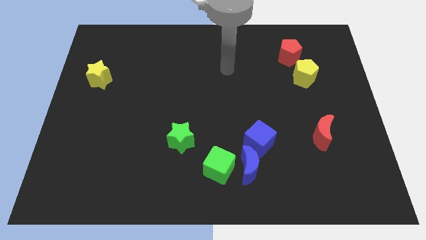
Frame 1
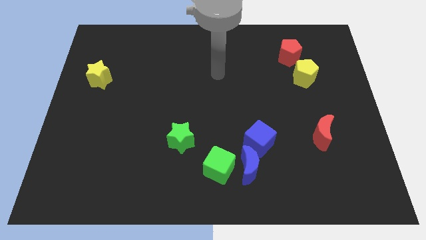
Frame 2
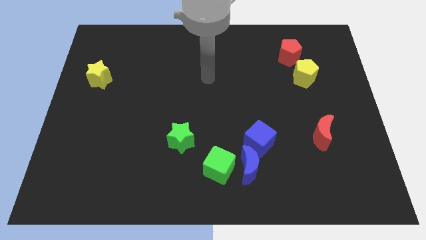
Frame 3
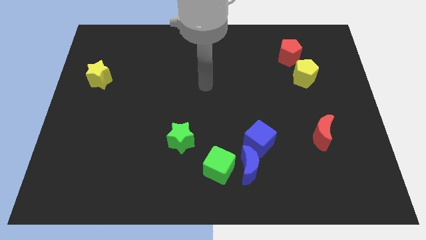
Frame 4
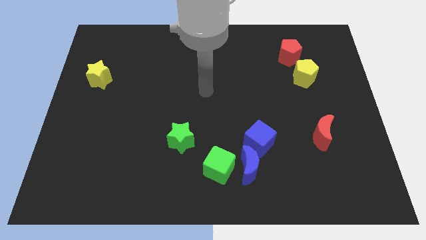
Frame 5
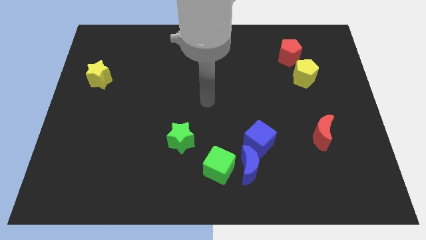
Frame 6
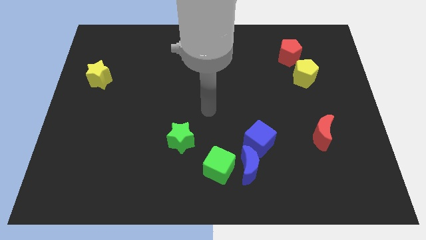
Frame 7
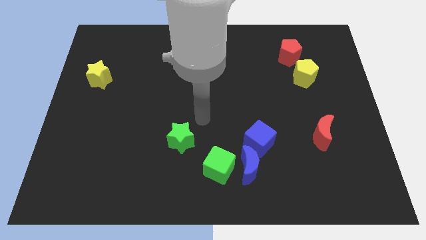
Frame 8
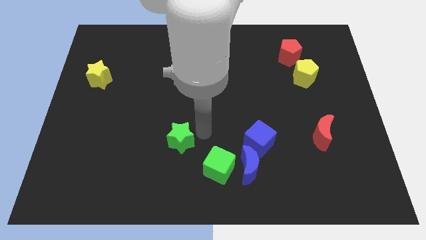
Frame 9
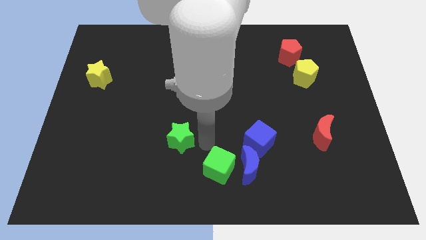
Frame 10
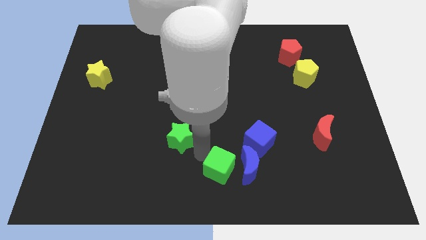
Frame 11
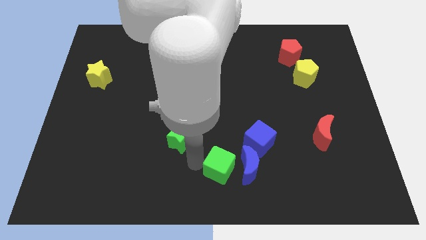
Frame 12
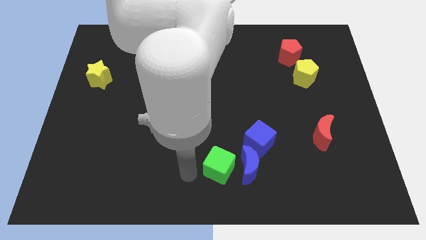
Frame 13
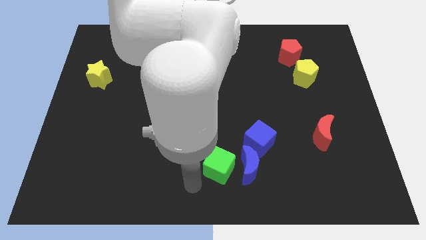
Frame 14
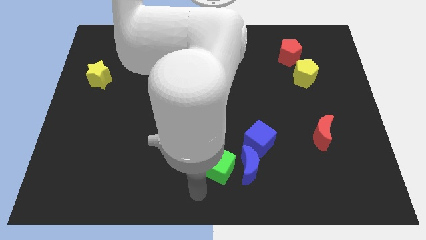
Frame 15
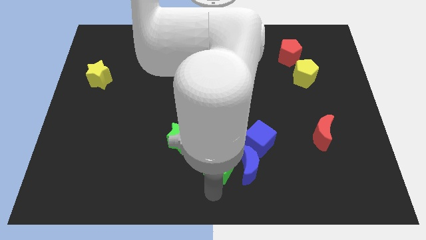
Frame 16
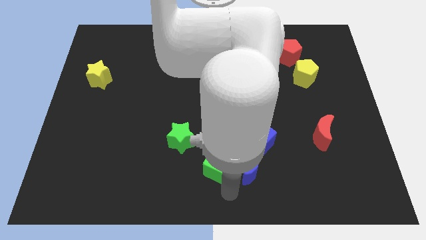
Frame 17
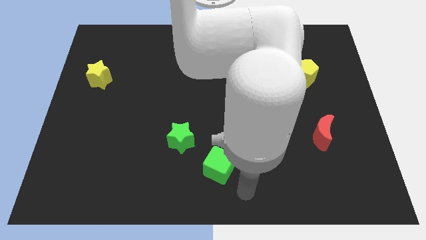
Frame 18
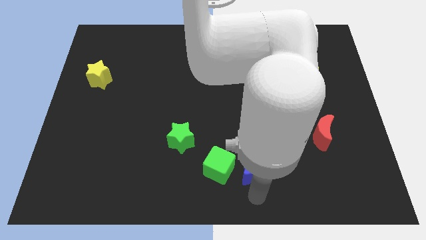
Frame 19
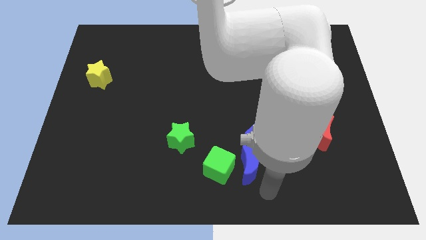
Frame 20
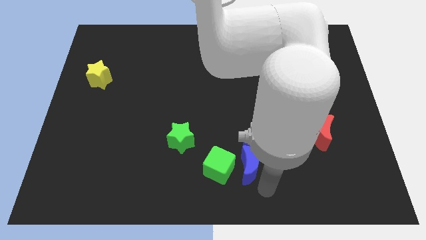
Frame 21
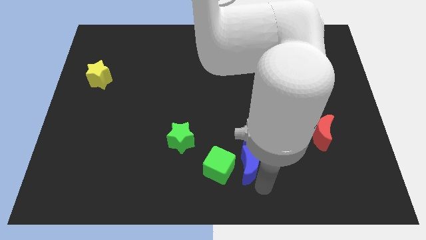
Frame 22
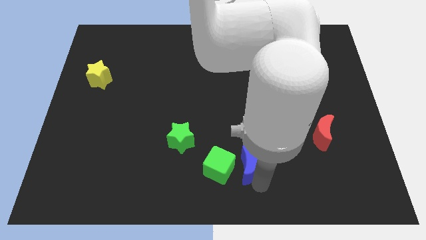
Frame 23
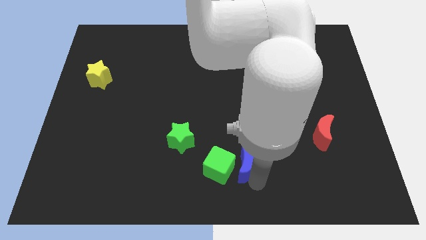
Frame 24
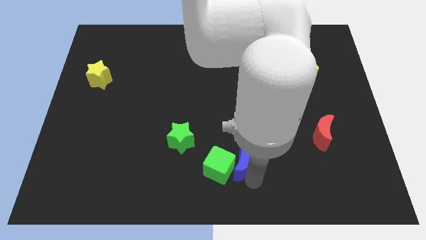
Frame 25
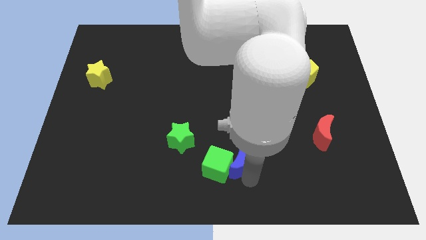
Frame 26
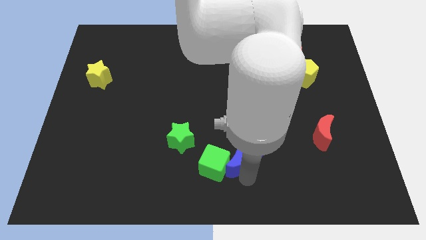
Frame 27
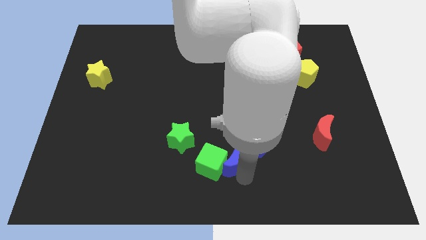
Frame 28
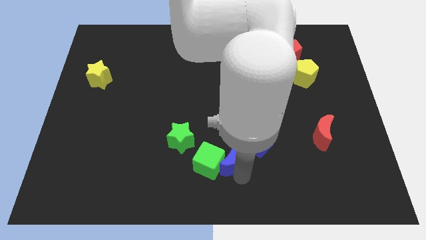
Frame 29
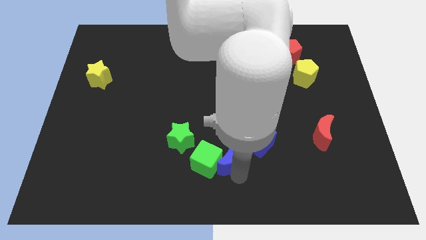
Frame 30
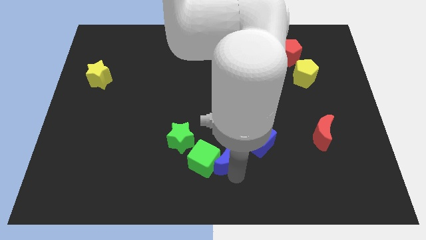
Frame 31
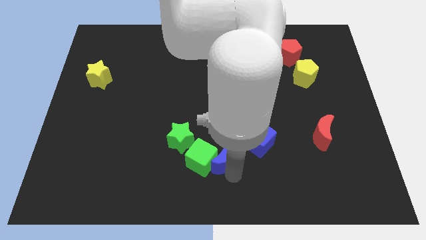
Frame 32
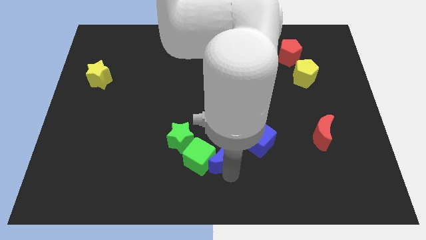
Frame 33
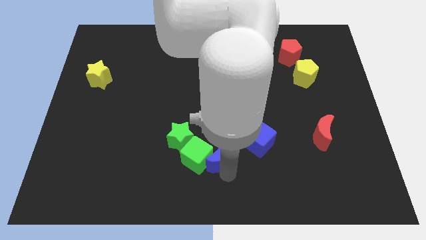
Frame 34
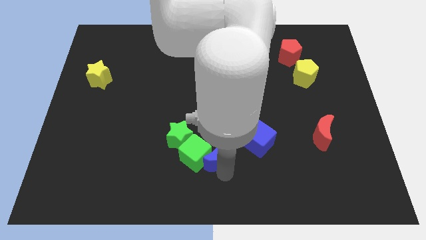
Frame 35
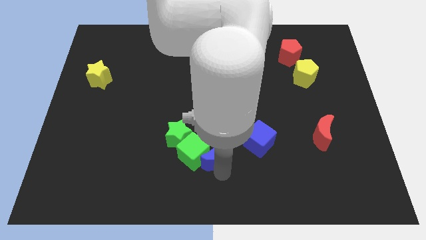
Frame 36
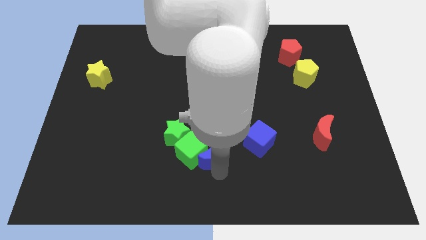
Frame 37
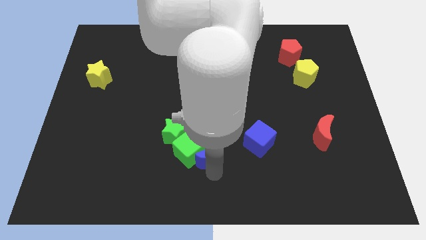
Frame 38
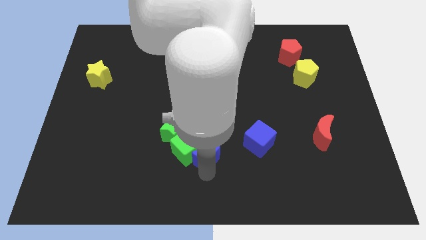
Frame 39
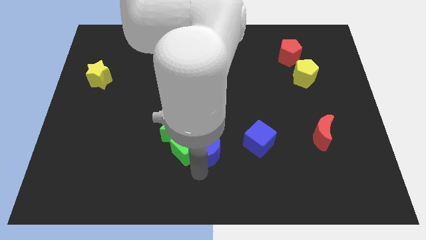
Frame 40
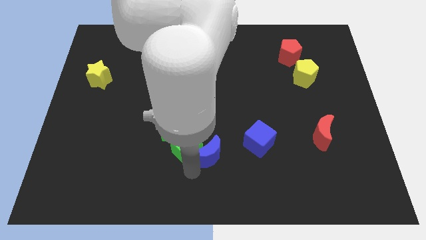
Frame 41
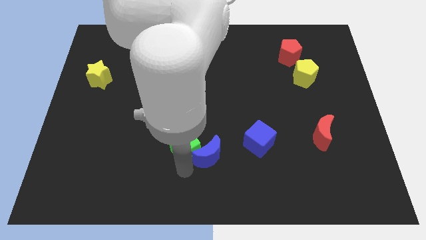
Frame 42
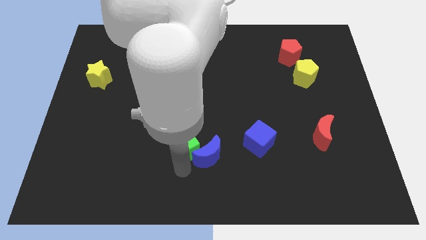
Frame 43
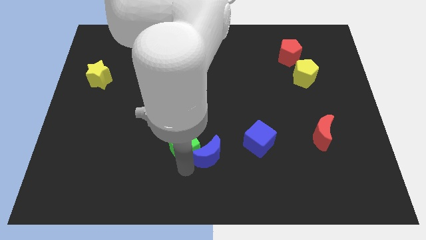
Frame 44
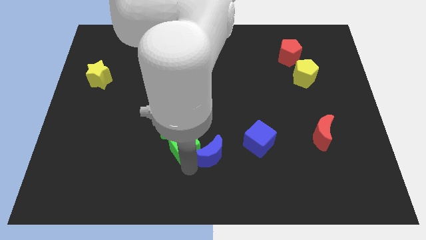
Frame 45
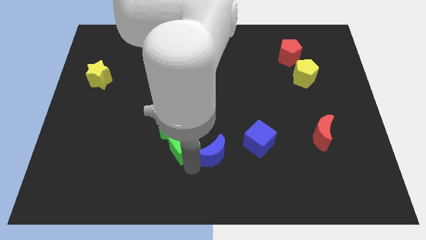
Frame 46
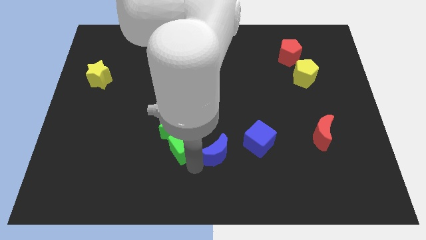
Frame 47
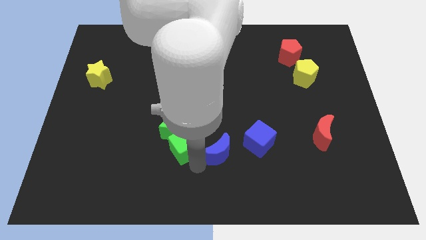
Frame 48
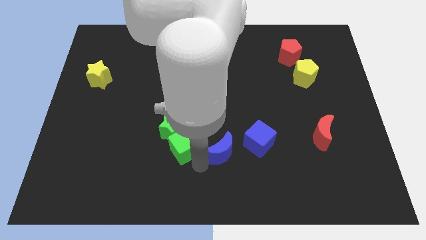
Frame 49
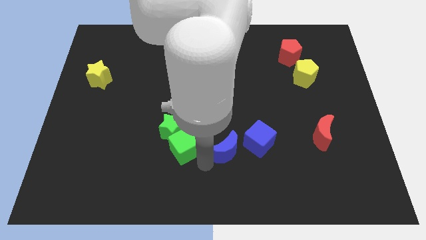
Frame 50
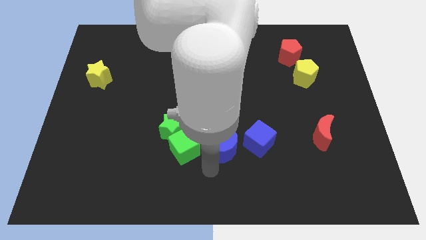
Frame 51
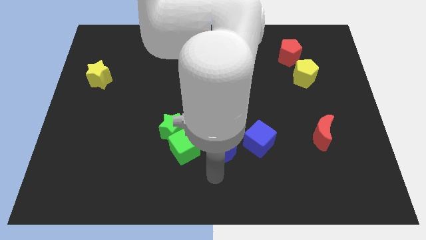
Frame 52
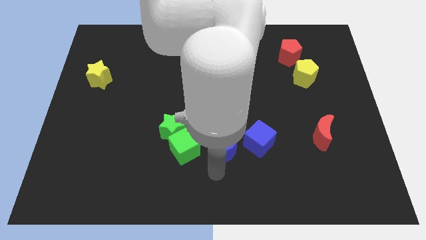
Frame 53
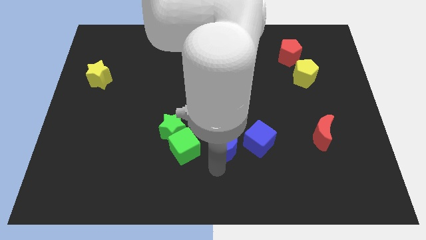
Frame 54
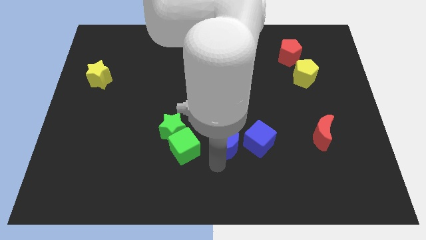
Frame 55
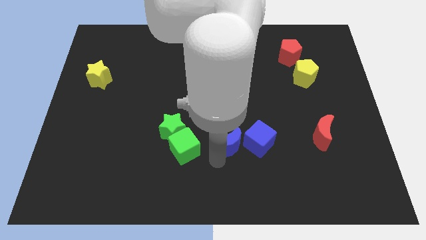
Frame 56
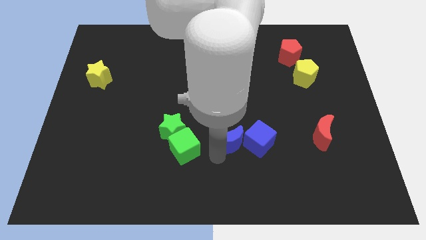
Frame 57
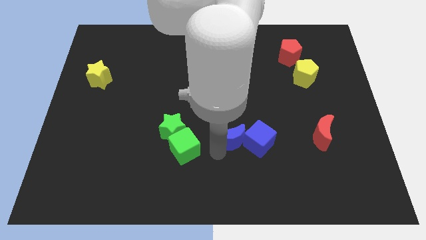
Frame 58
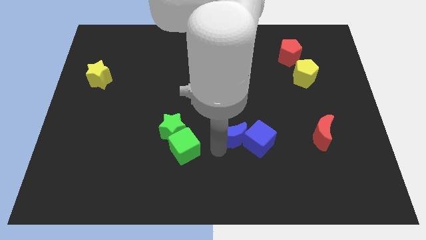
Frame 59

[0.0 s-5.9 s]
move the blue moon a little bit upwards

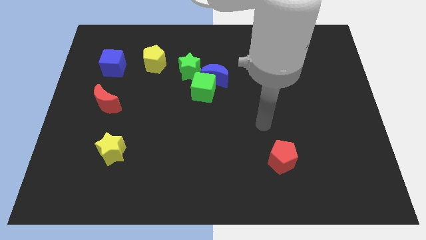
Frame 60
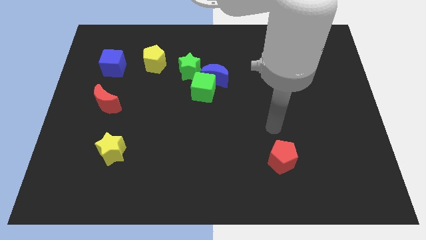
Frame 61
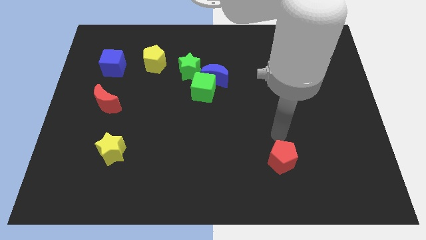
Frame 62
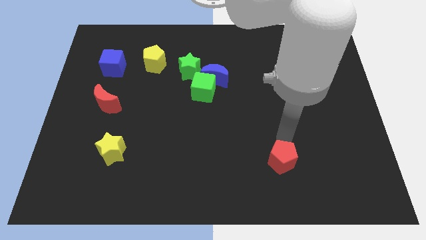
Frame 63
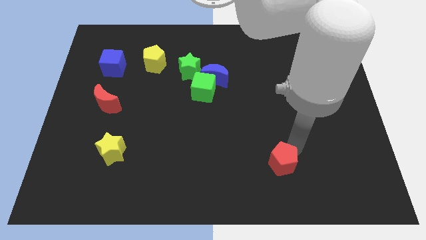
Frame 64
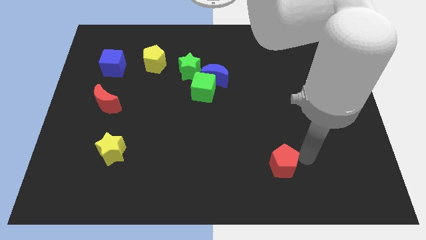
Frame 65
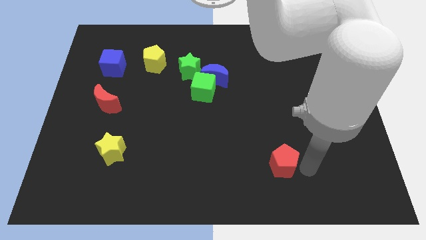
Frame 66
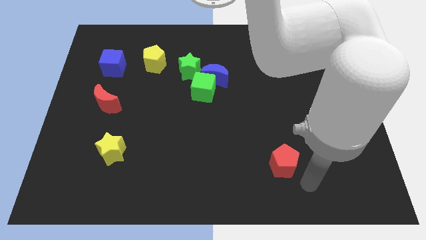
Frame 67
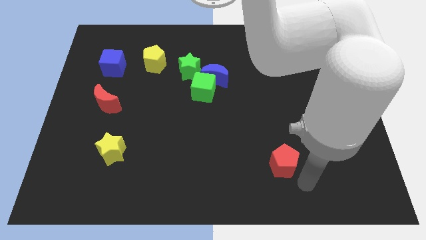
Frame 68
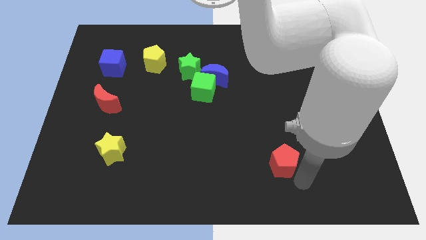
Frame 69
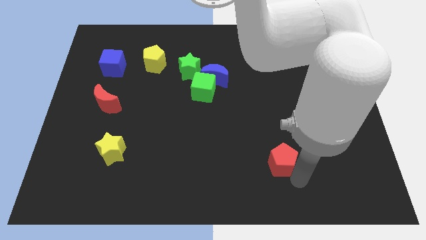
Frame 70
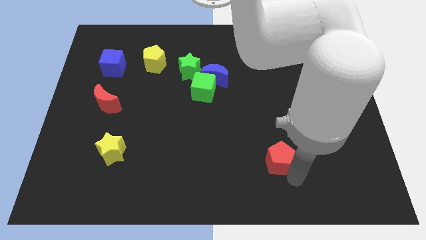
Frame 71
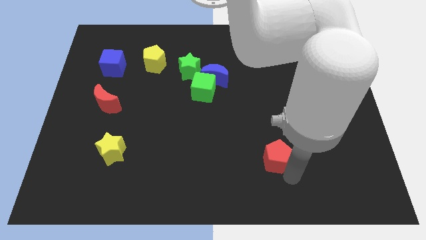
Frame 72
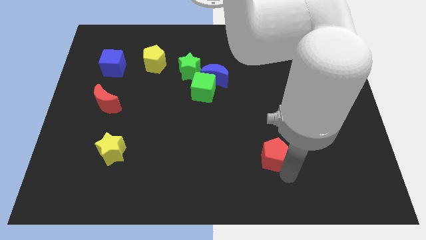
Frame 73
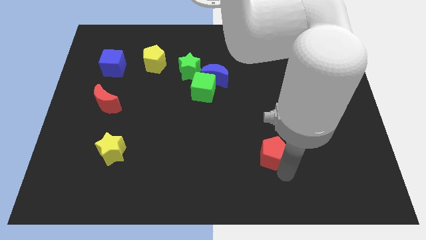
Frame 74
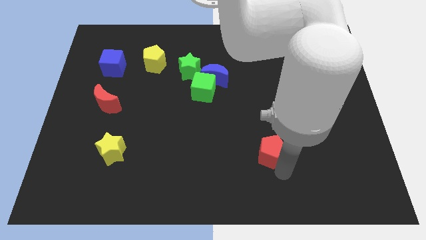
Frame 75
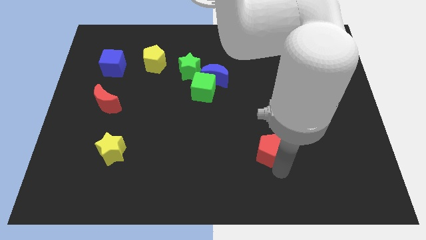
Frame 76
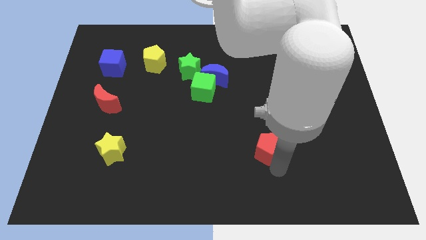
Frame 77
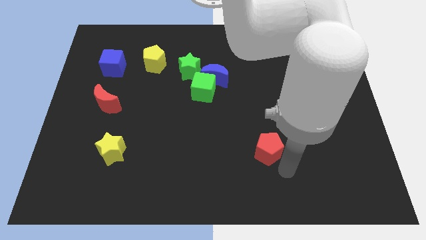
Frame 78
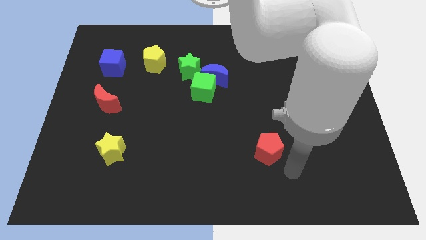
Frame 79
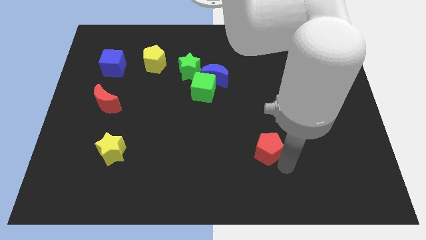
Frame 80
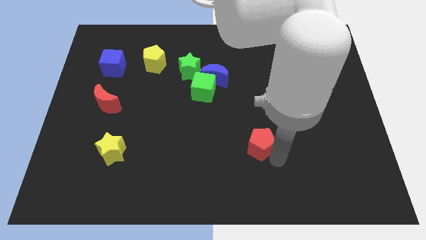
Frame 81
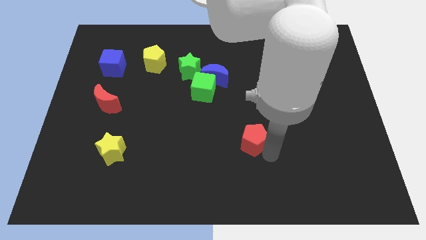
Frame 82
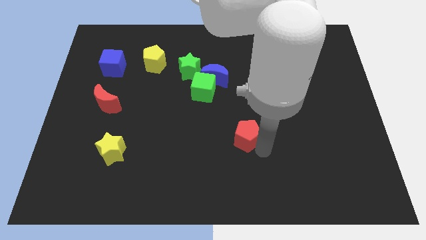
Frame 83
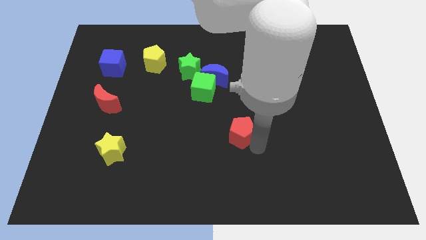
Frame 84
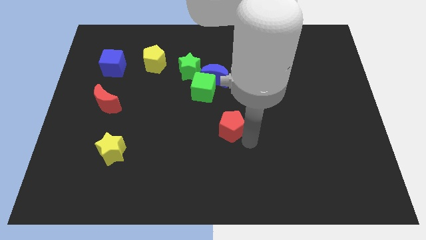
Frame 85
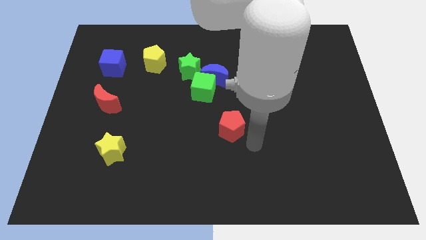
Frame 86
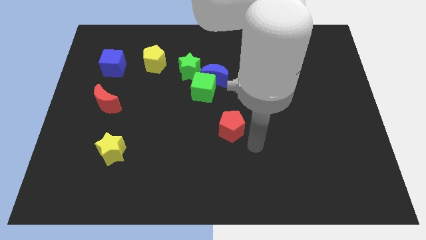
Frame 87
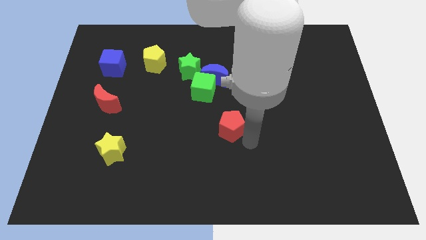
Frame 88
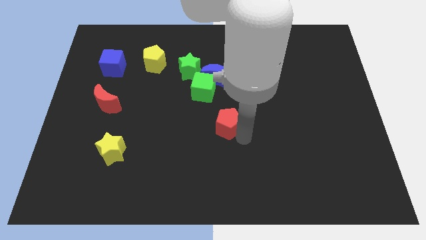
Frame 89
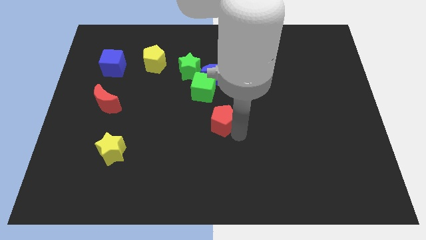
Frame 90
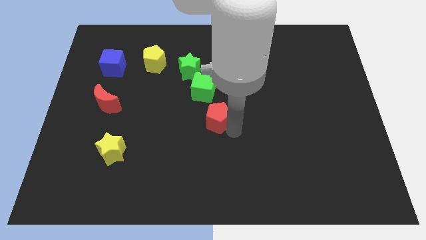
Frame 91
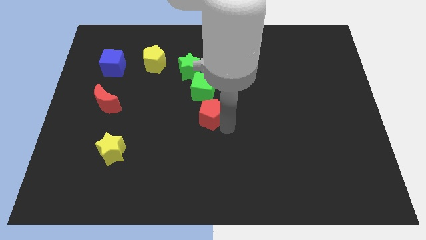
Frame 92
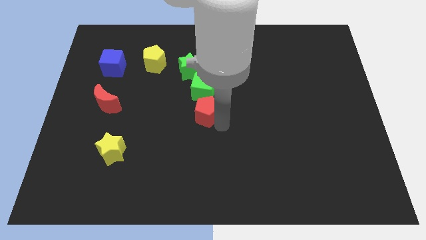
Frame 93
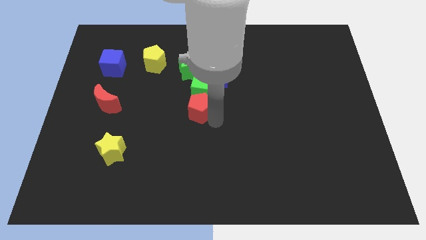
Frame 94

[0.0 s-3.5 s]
move the red pentagon upwards and then to the left
